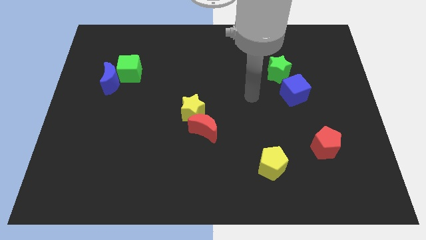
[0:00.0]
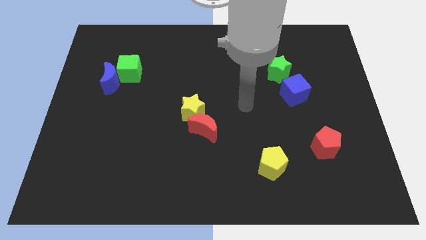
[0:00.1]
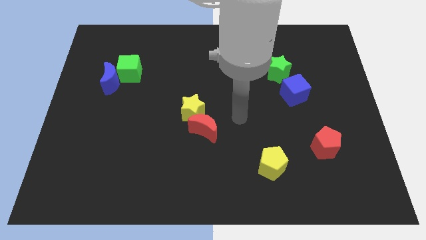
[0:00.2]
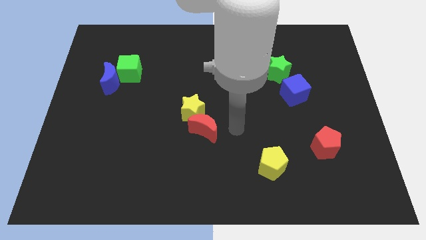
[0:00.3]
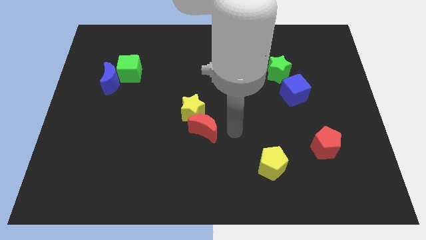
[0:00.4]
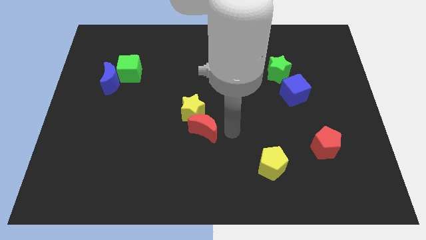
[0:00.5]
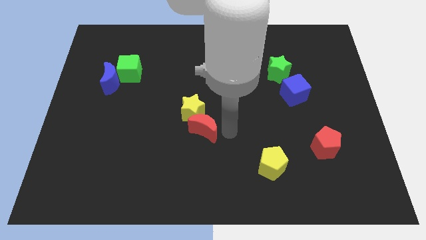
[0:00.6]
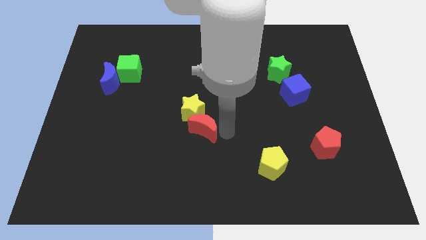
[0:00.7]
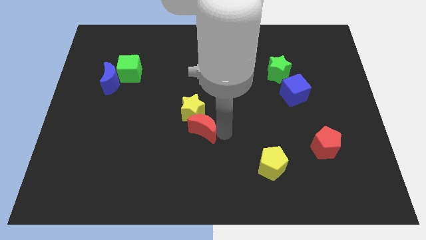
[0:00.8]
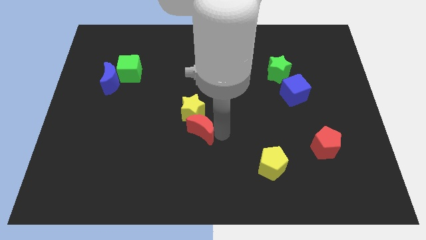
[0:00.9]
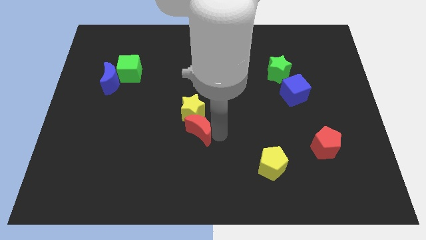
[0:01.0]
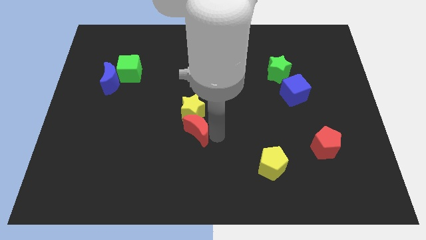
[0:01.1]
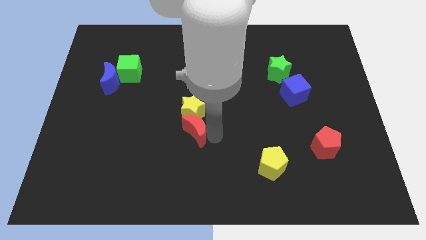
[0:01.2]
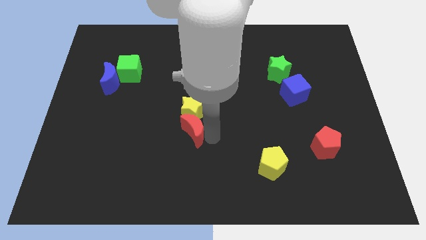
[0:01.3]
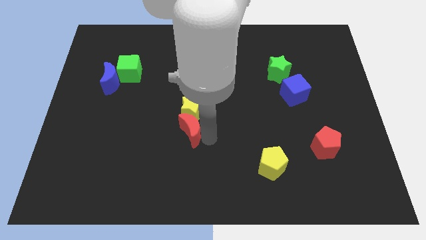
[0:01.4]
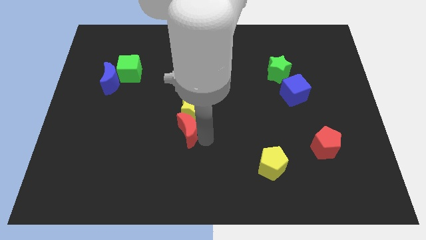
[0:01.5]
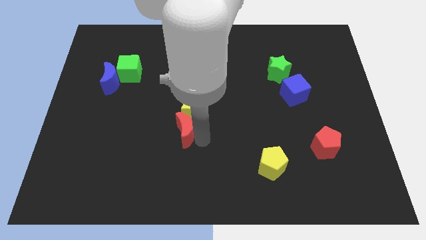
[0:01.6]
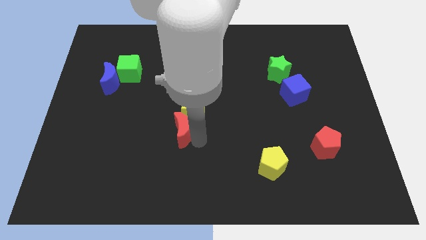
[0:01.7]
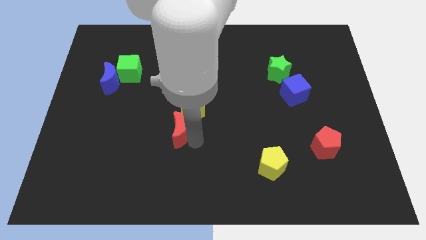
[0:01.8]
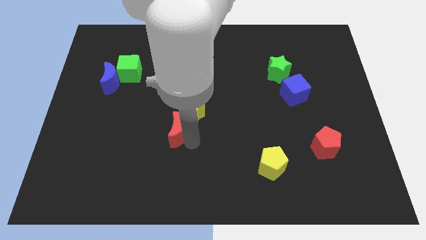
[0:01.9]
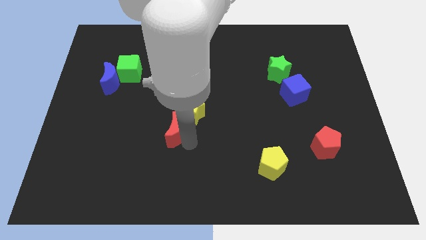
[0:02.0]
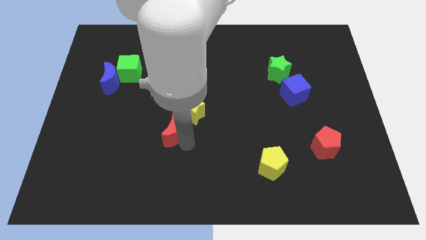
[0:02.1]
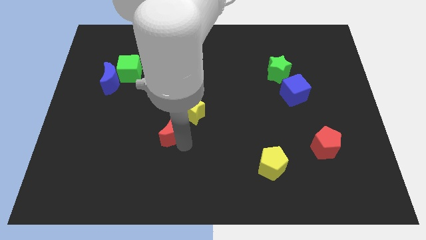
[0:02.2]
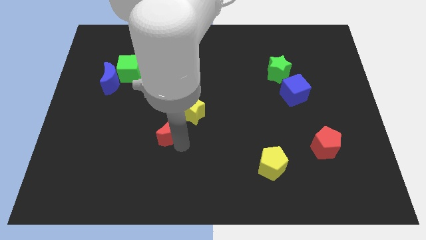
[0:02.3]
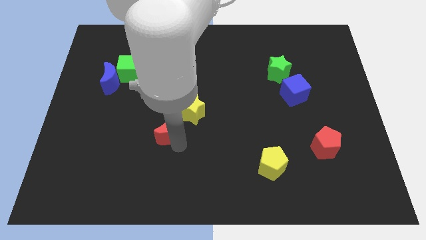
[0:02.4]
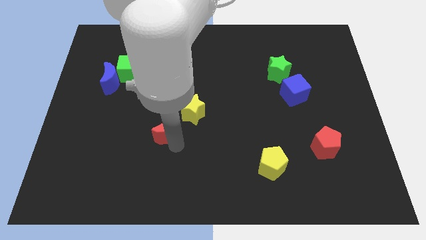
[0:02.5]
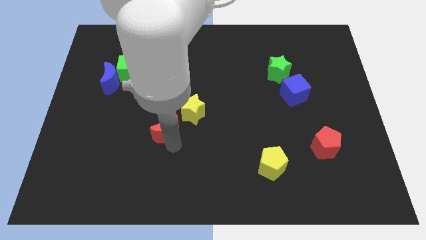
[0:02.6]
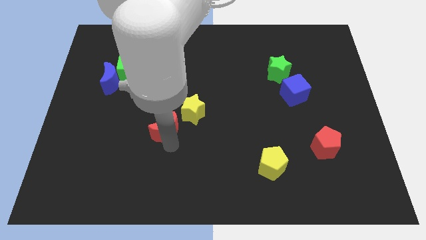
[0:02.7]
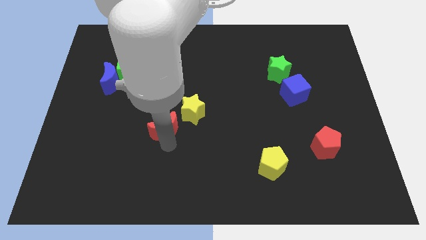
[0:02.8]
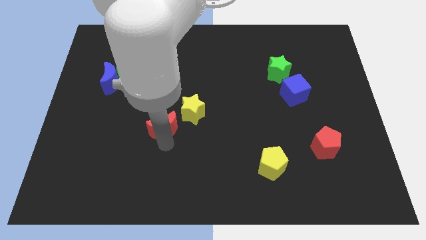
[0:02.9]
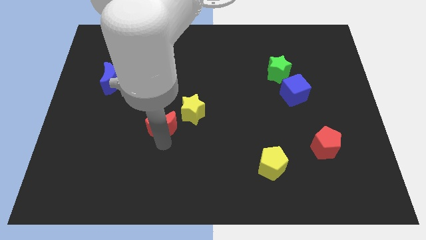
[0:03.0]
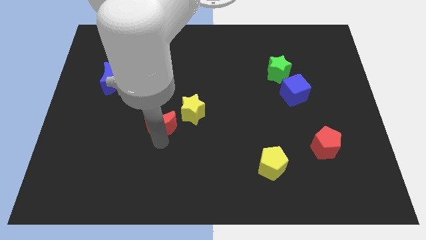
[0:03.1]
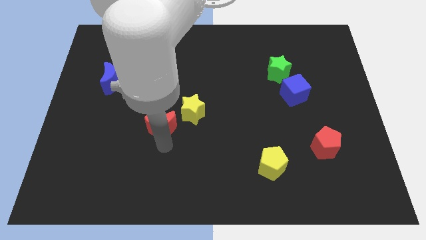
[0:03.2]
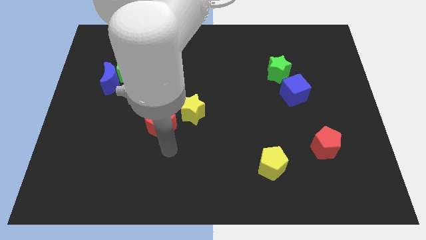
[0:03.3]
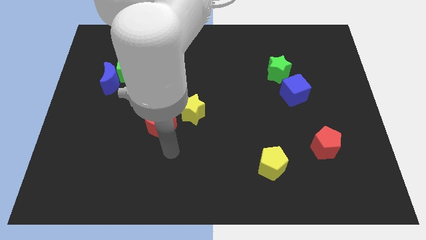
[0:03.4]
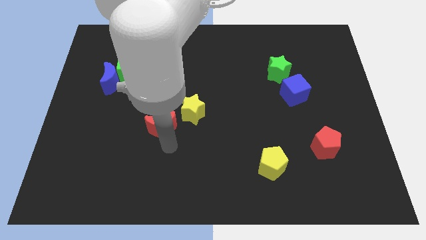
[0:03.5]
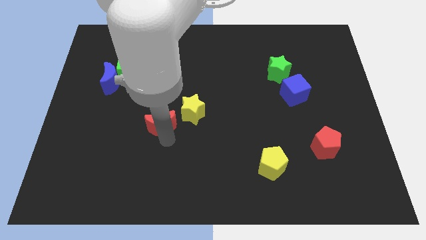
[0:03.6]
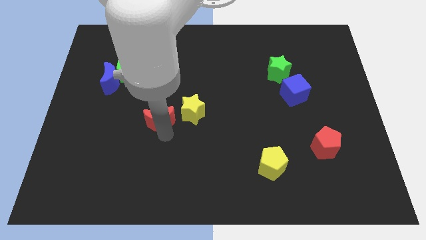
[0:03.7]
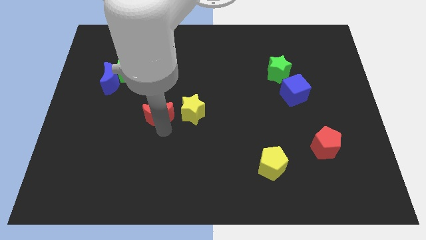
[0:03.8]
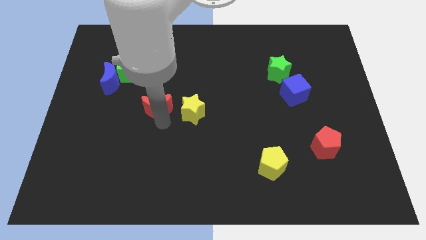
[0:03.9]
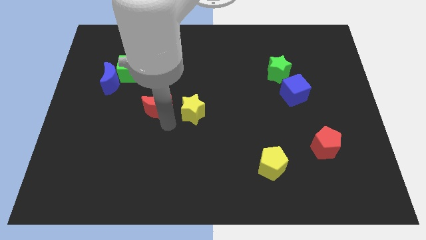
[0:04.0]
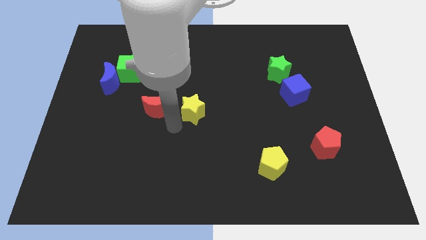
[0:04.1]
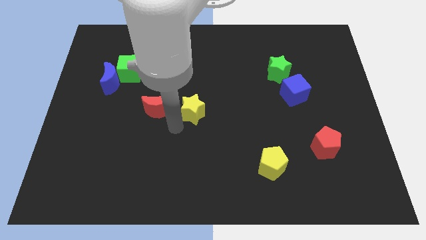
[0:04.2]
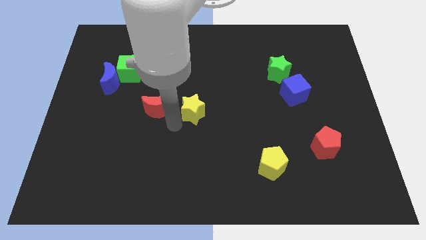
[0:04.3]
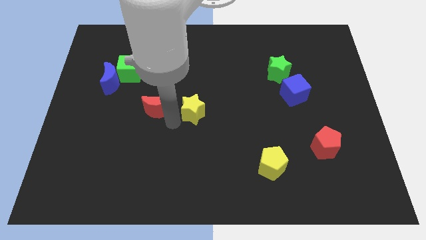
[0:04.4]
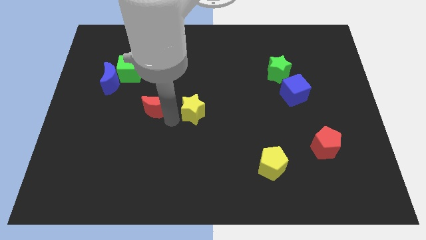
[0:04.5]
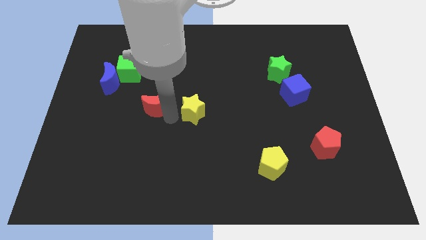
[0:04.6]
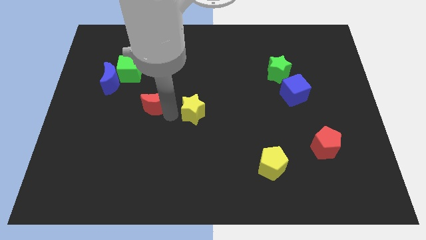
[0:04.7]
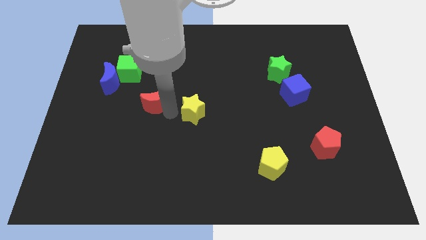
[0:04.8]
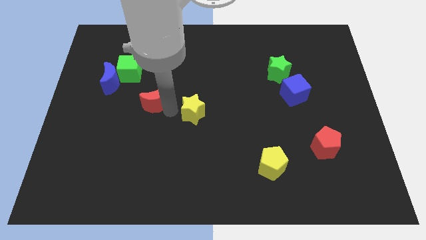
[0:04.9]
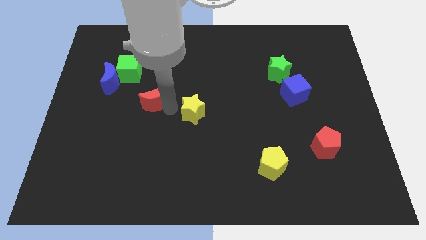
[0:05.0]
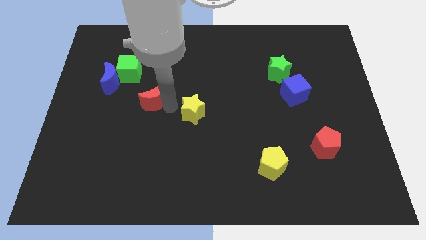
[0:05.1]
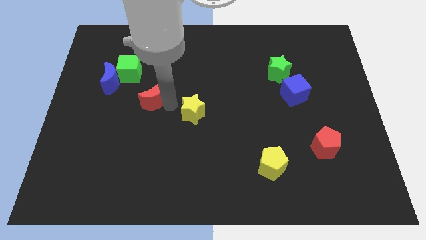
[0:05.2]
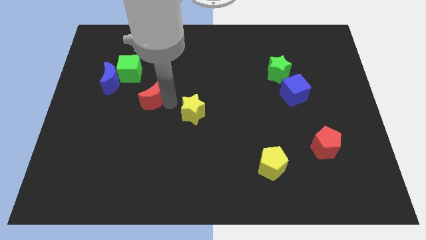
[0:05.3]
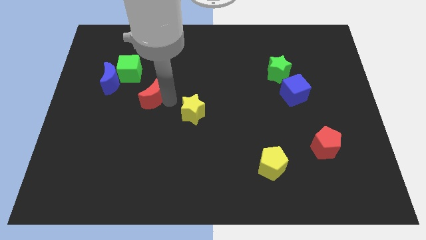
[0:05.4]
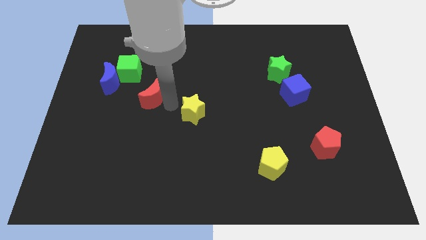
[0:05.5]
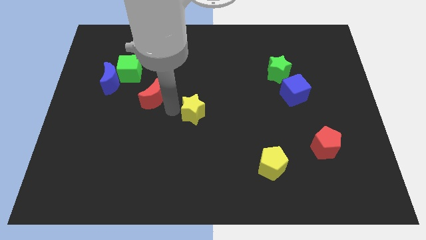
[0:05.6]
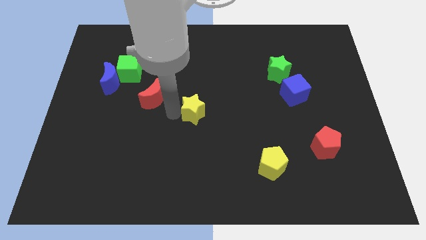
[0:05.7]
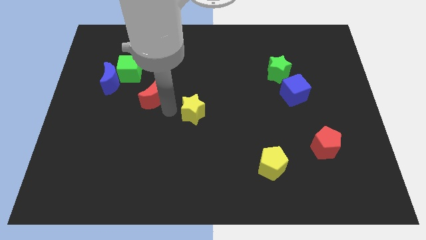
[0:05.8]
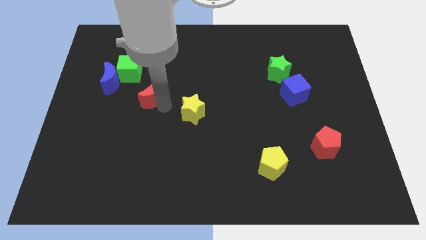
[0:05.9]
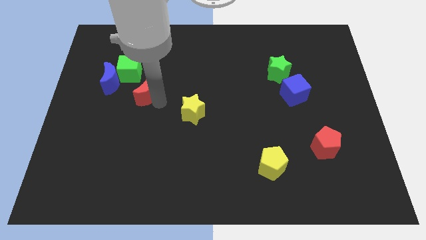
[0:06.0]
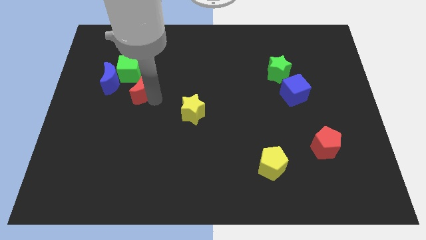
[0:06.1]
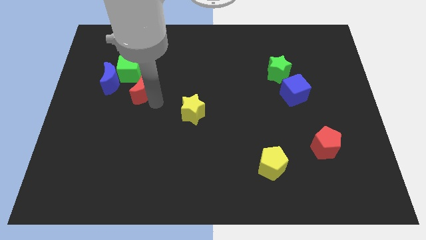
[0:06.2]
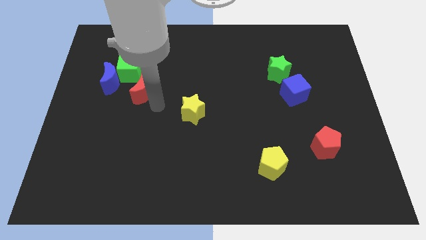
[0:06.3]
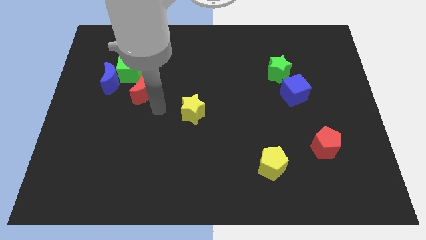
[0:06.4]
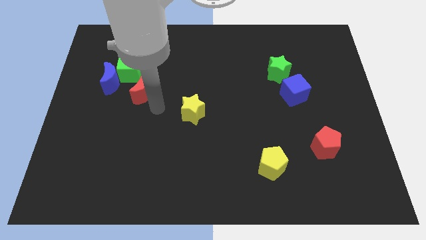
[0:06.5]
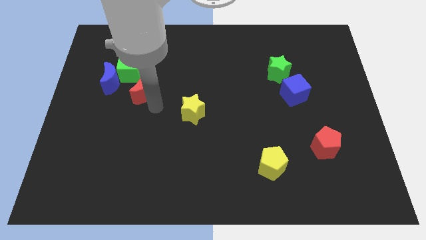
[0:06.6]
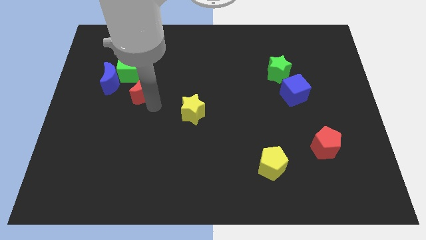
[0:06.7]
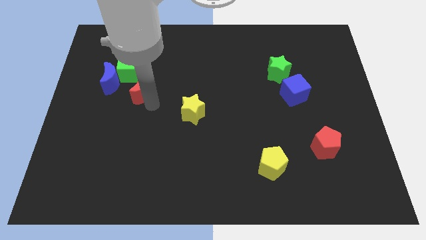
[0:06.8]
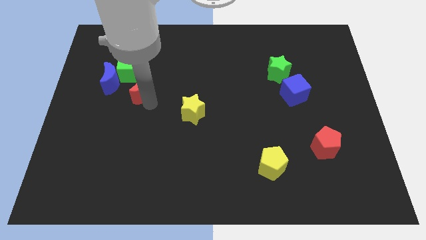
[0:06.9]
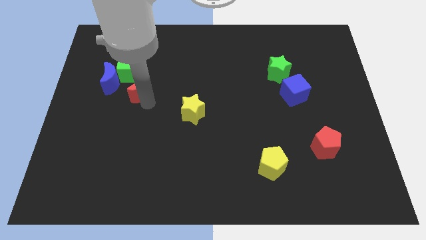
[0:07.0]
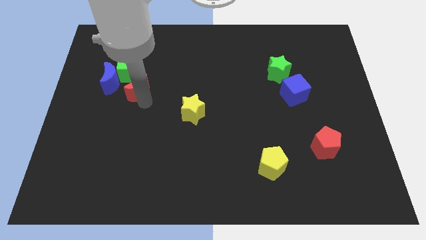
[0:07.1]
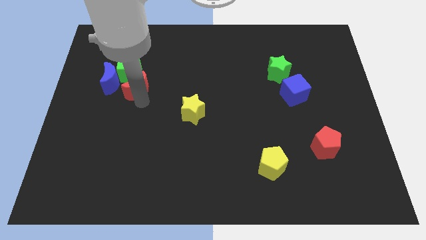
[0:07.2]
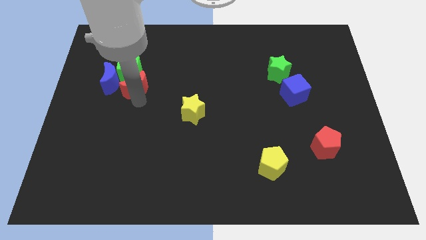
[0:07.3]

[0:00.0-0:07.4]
push the red moon towards the green cube
